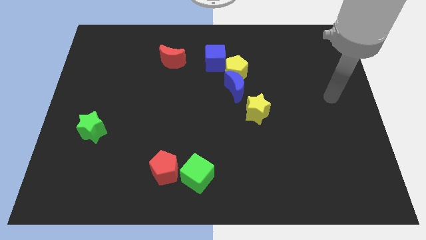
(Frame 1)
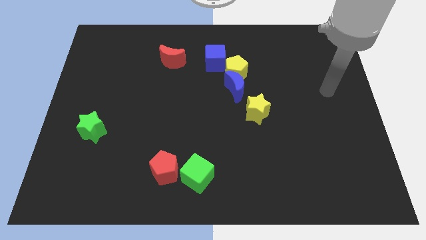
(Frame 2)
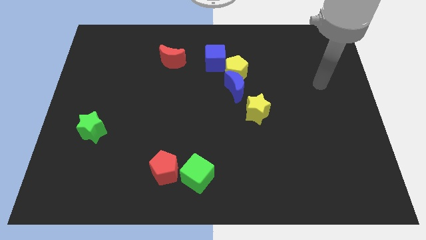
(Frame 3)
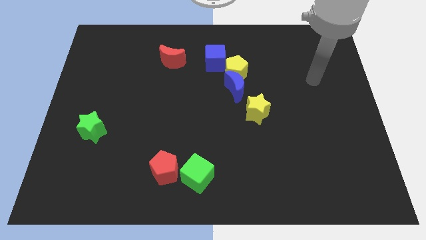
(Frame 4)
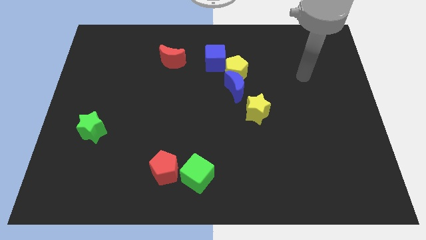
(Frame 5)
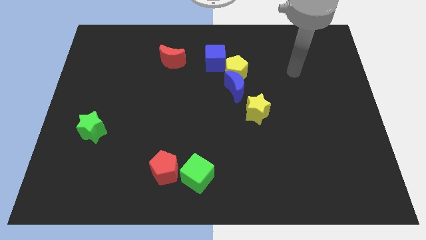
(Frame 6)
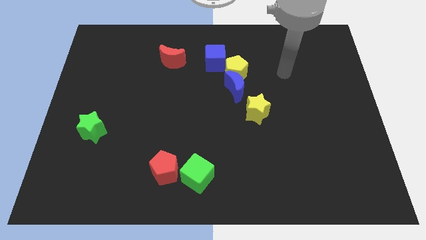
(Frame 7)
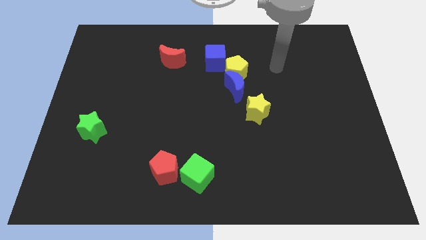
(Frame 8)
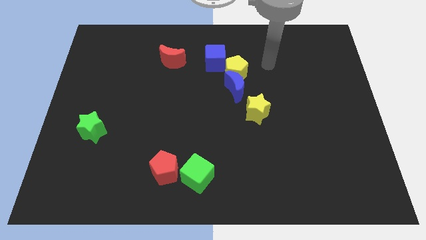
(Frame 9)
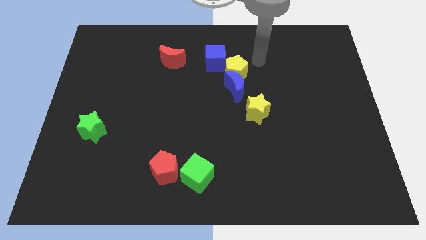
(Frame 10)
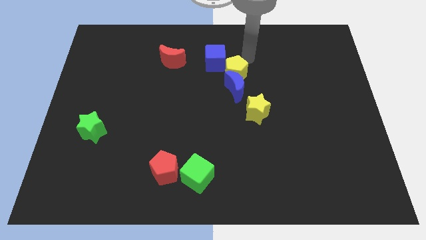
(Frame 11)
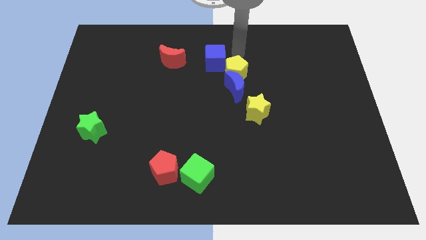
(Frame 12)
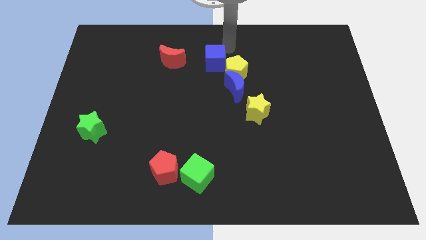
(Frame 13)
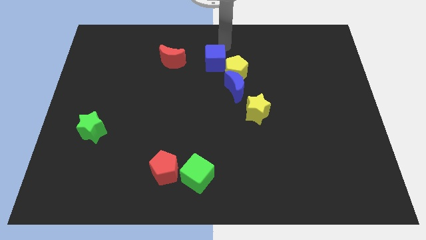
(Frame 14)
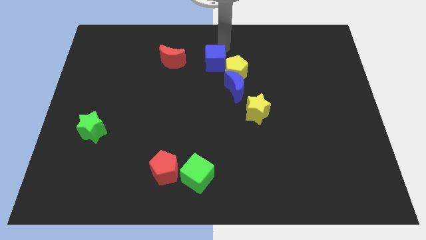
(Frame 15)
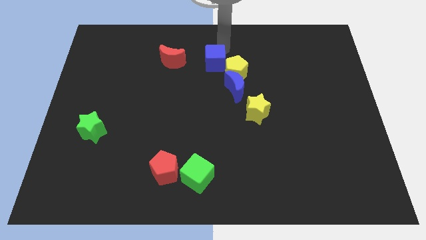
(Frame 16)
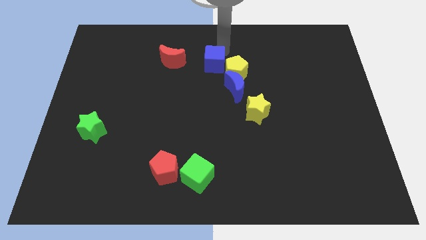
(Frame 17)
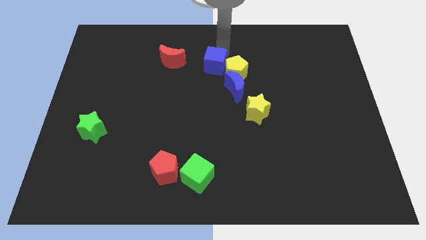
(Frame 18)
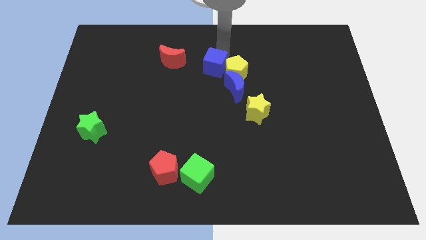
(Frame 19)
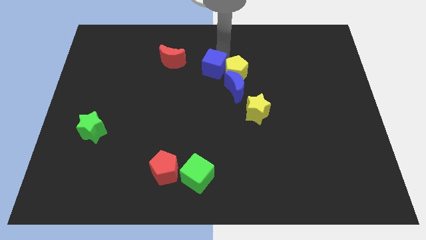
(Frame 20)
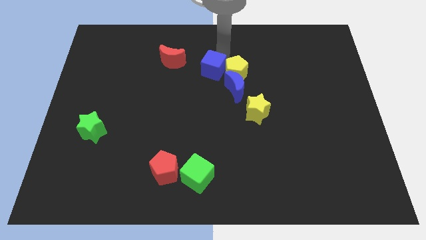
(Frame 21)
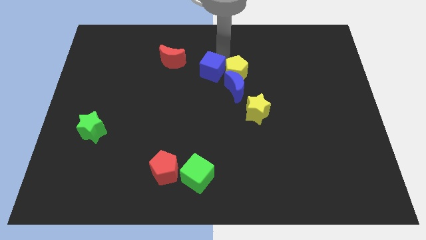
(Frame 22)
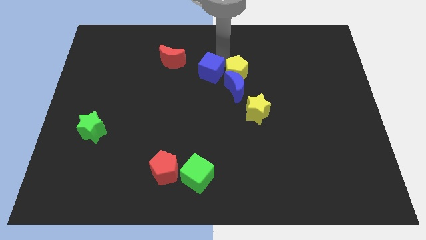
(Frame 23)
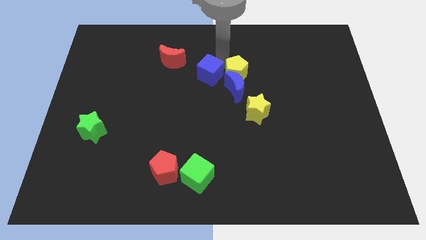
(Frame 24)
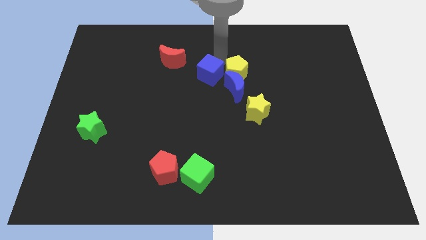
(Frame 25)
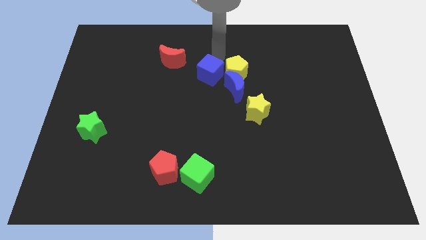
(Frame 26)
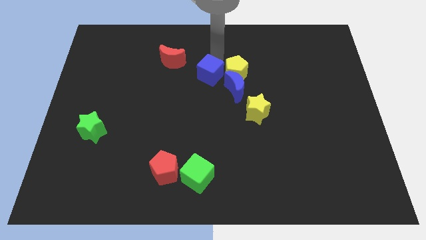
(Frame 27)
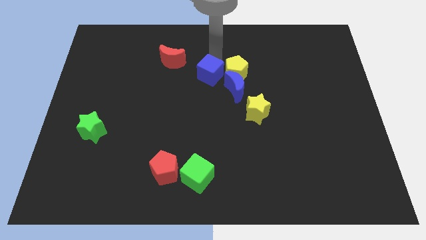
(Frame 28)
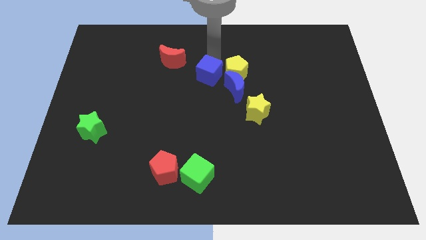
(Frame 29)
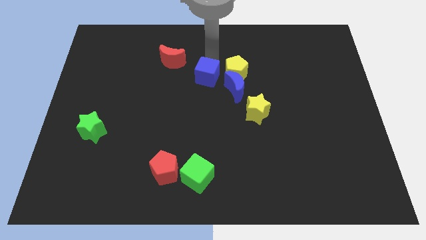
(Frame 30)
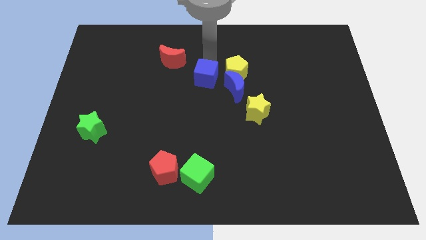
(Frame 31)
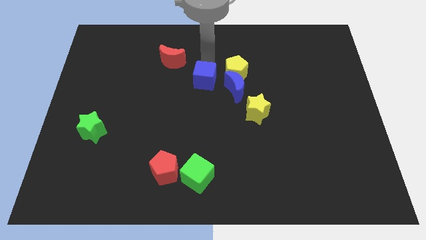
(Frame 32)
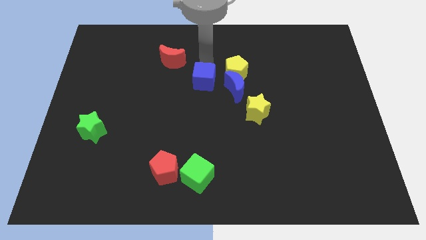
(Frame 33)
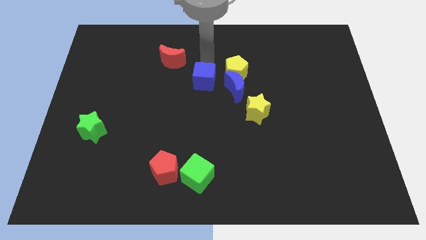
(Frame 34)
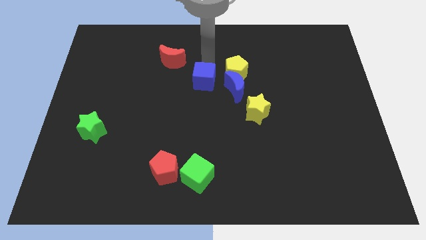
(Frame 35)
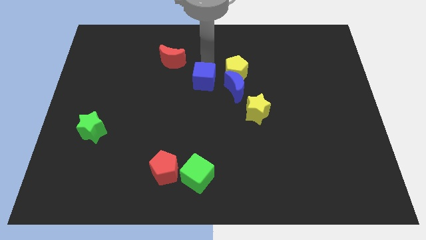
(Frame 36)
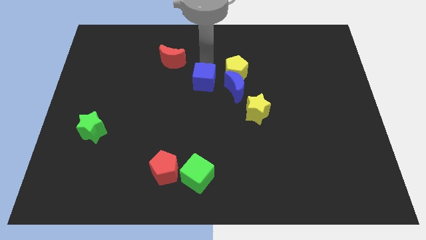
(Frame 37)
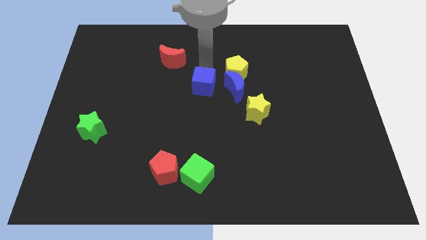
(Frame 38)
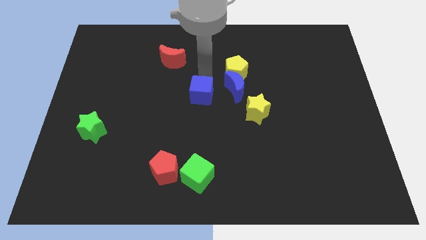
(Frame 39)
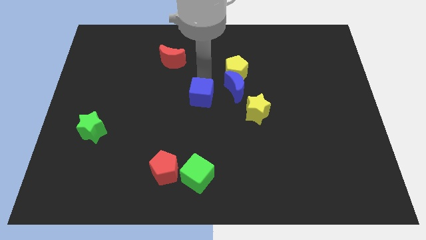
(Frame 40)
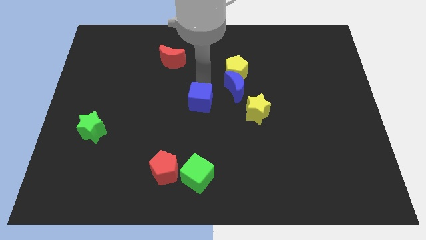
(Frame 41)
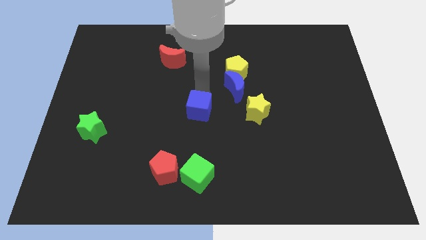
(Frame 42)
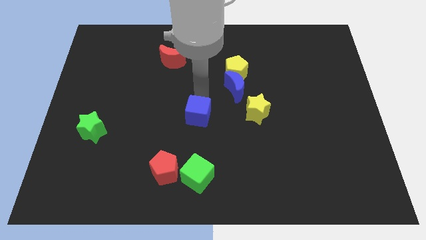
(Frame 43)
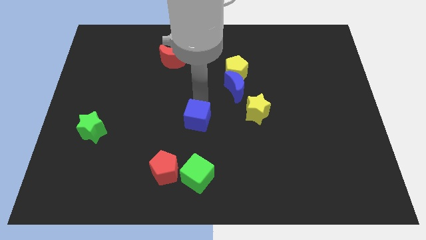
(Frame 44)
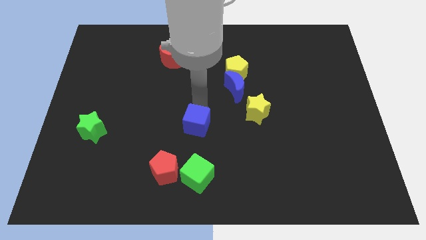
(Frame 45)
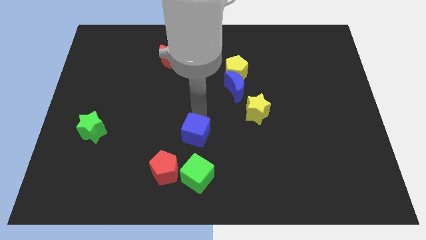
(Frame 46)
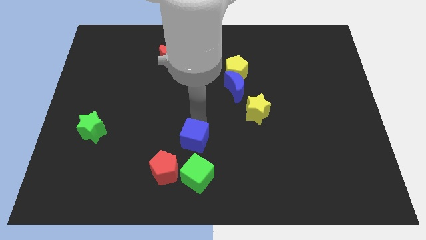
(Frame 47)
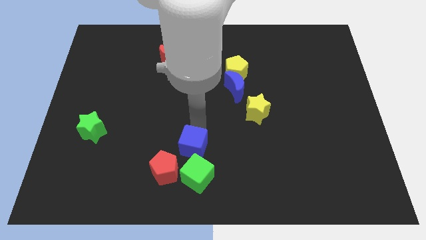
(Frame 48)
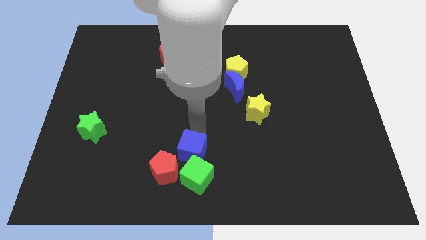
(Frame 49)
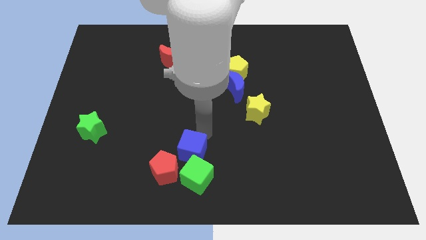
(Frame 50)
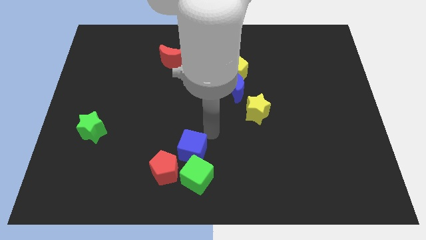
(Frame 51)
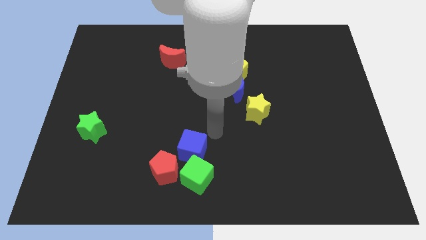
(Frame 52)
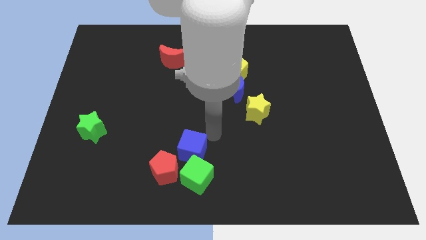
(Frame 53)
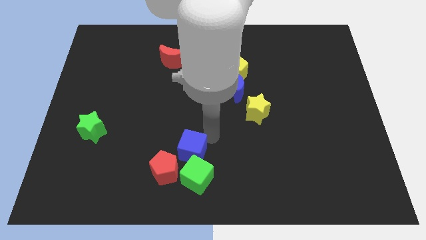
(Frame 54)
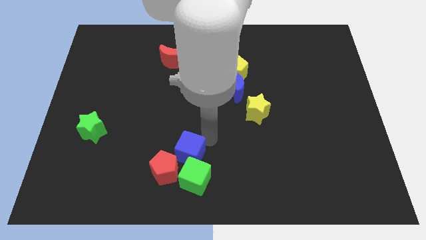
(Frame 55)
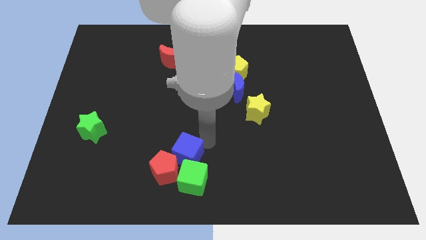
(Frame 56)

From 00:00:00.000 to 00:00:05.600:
put the blue cube next to the red pentagon
